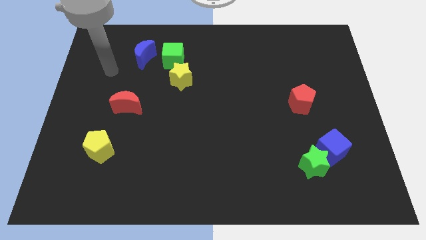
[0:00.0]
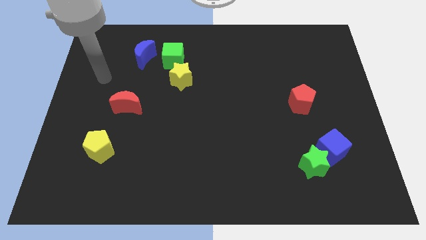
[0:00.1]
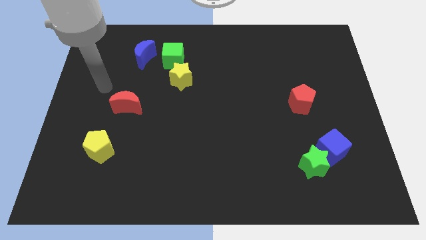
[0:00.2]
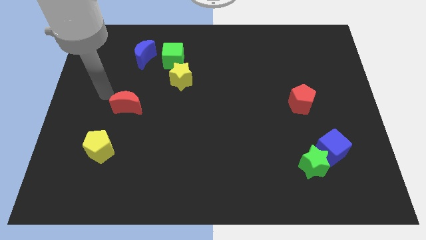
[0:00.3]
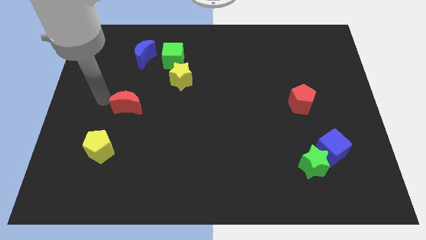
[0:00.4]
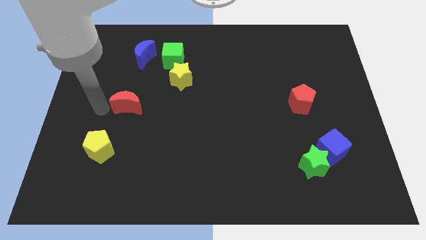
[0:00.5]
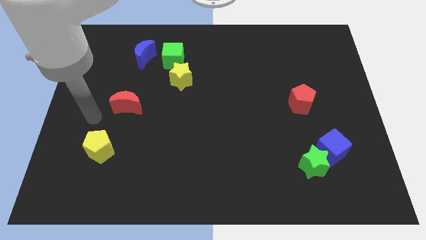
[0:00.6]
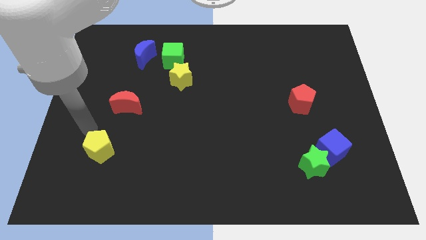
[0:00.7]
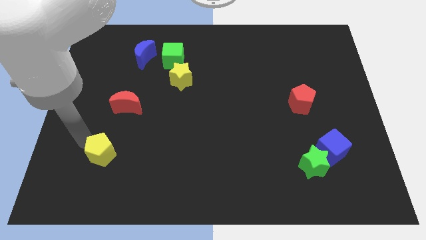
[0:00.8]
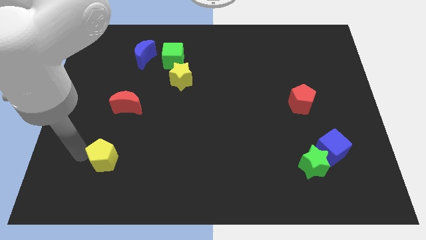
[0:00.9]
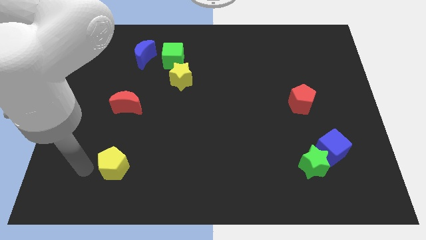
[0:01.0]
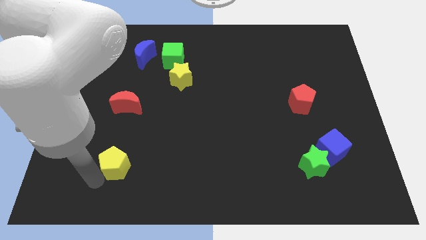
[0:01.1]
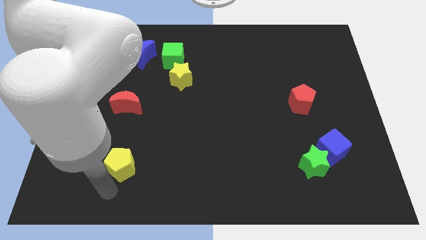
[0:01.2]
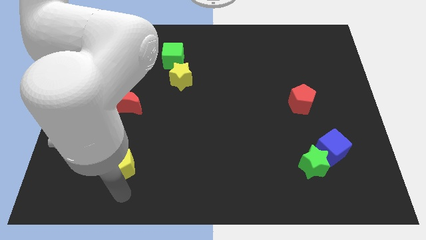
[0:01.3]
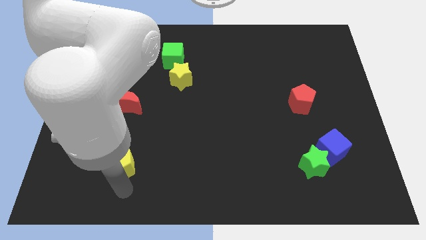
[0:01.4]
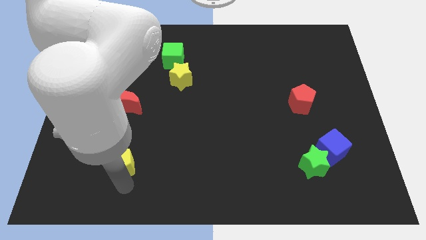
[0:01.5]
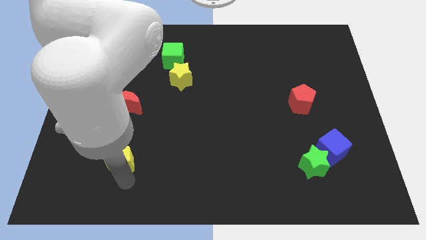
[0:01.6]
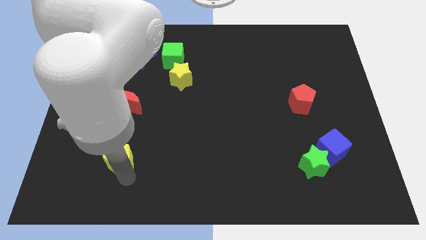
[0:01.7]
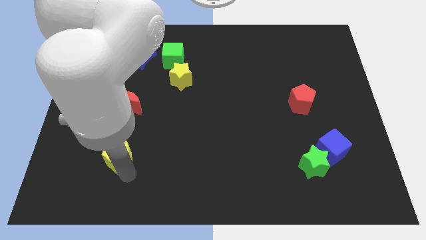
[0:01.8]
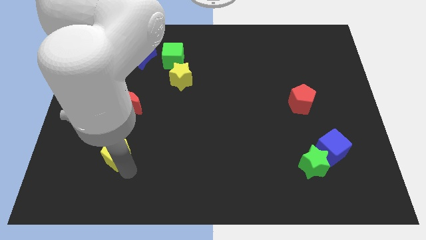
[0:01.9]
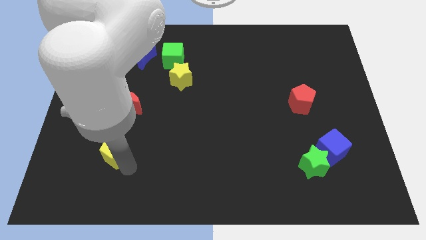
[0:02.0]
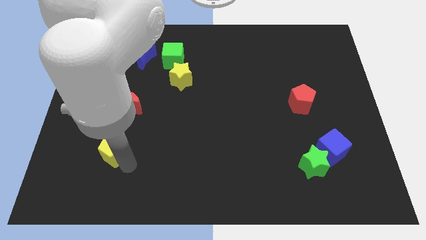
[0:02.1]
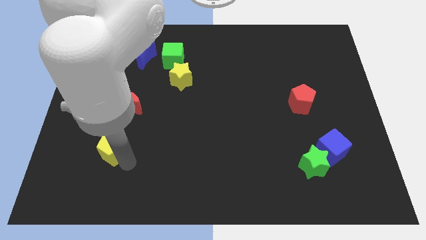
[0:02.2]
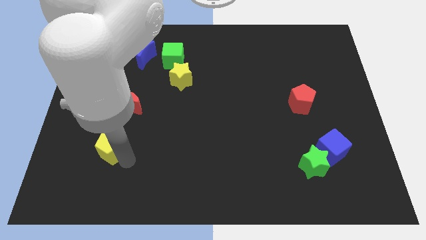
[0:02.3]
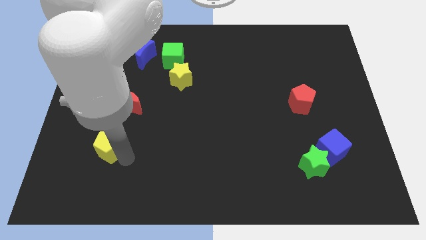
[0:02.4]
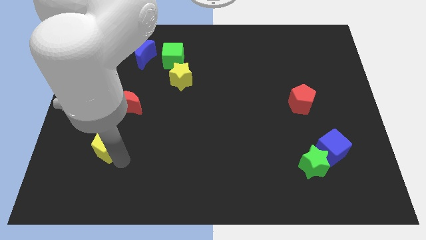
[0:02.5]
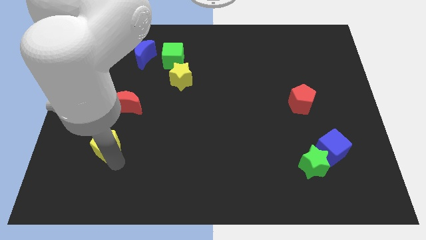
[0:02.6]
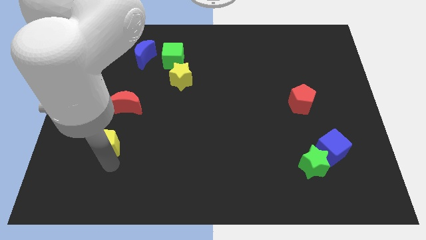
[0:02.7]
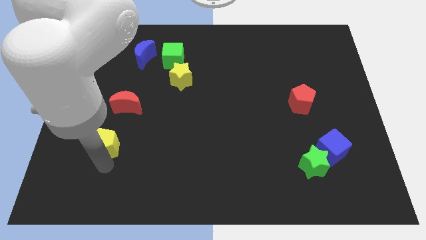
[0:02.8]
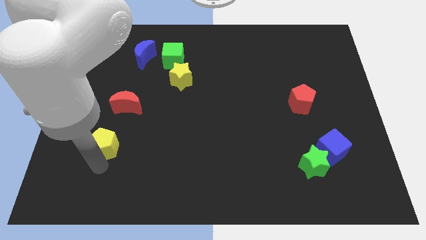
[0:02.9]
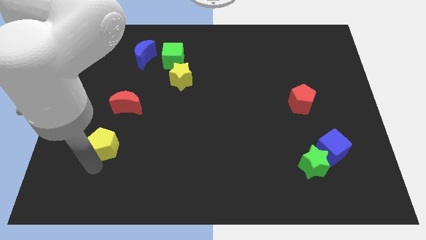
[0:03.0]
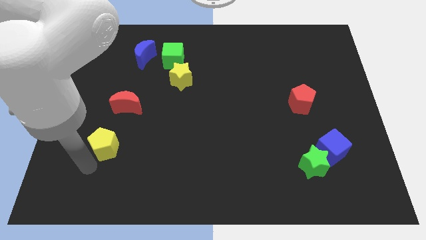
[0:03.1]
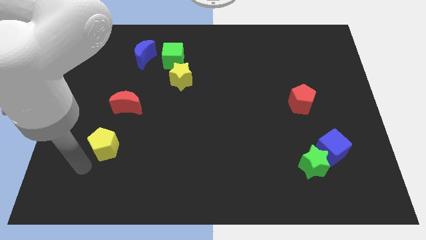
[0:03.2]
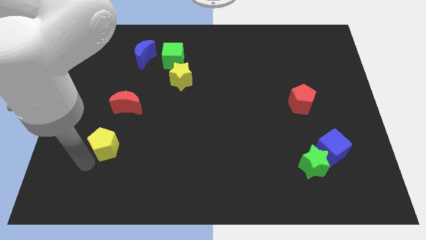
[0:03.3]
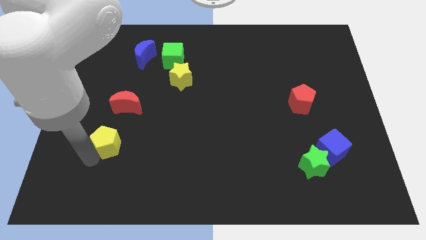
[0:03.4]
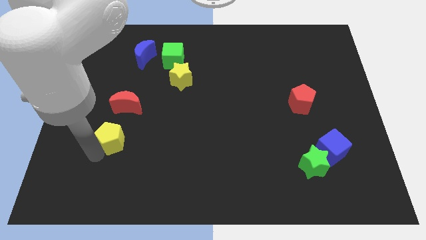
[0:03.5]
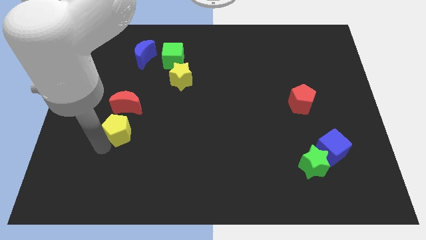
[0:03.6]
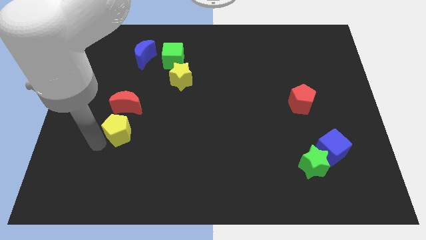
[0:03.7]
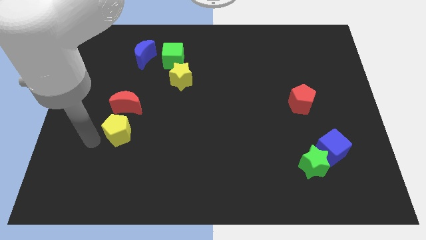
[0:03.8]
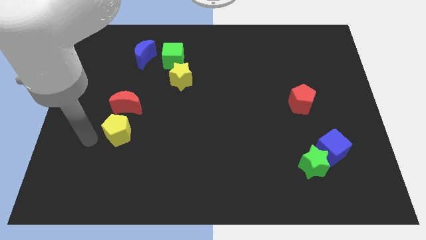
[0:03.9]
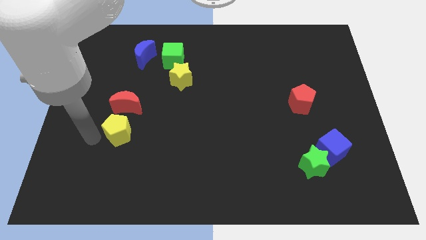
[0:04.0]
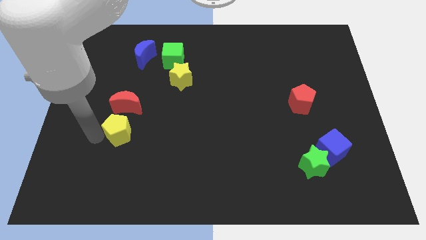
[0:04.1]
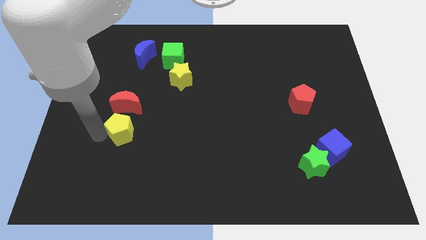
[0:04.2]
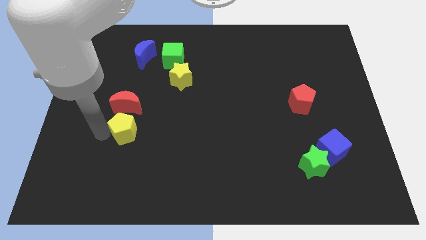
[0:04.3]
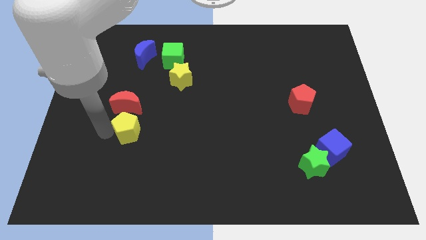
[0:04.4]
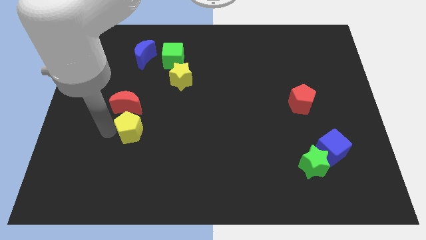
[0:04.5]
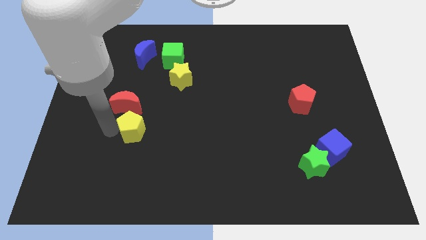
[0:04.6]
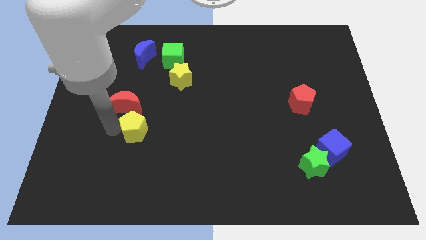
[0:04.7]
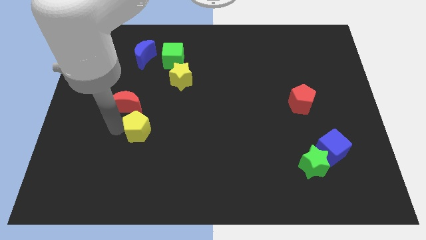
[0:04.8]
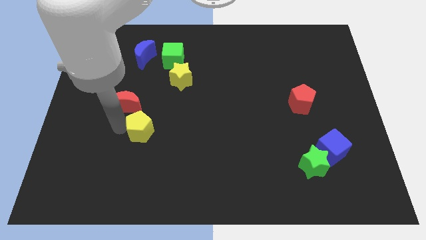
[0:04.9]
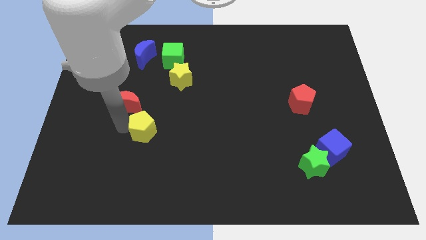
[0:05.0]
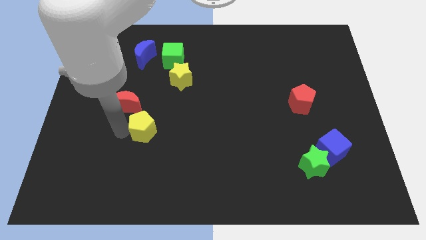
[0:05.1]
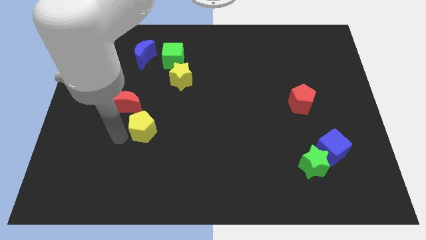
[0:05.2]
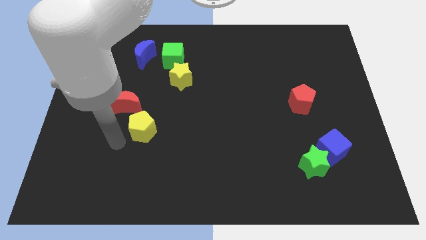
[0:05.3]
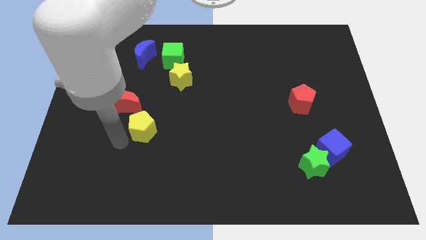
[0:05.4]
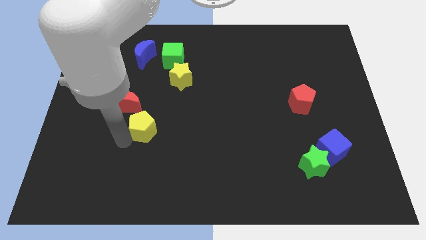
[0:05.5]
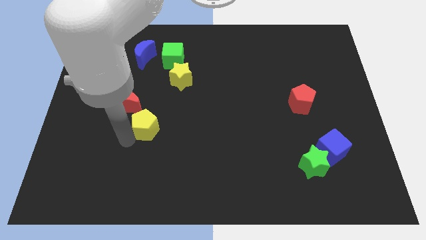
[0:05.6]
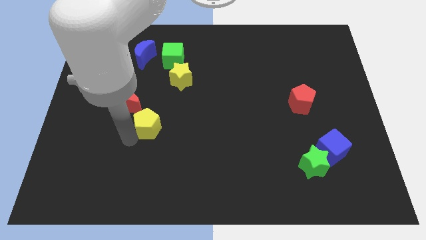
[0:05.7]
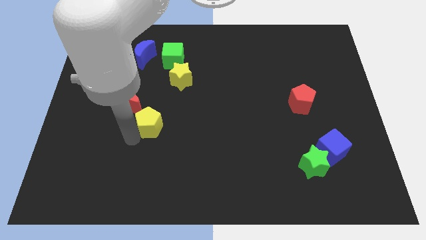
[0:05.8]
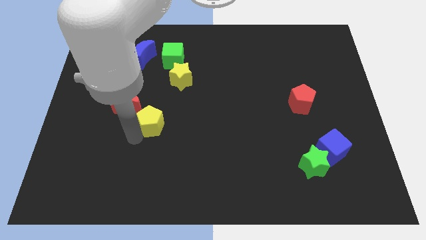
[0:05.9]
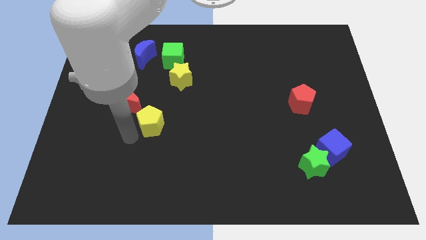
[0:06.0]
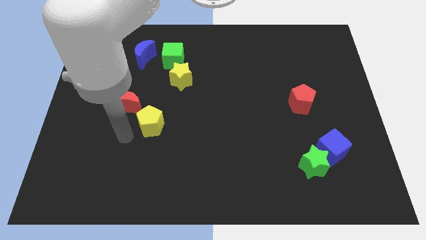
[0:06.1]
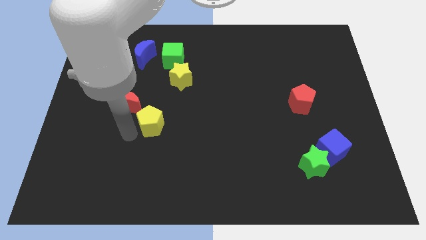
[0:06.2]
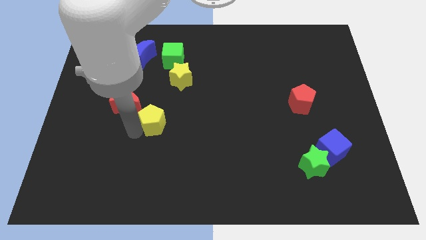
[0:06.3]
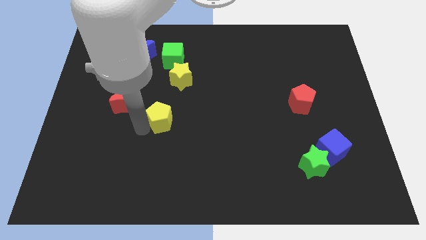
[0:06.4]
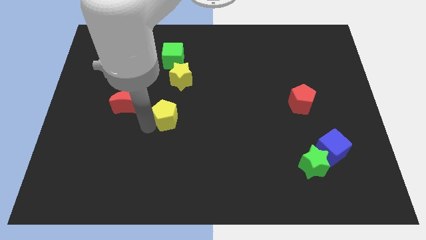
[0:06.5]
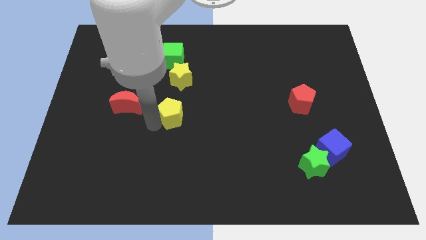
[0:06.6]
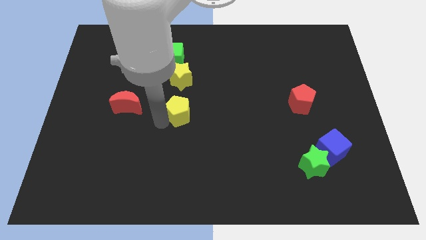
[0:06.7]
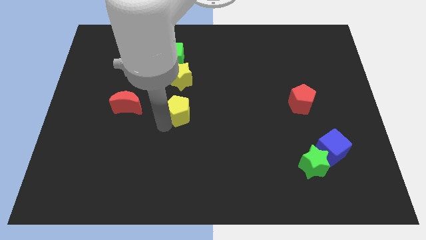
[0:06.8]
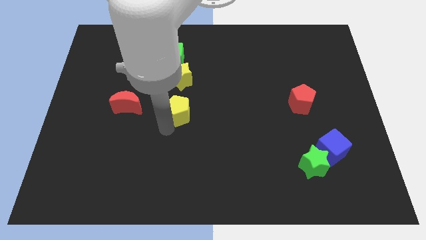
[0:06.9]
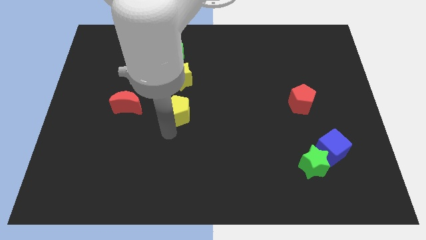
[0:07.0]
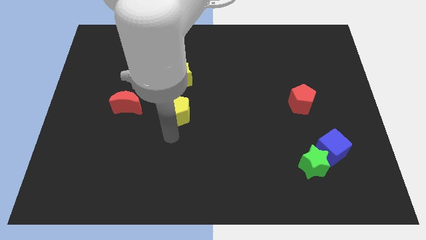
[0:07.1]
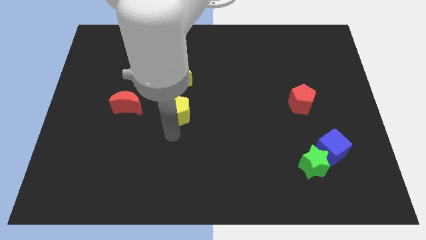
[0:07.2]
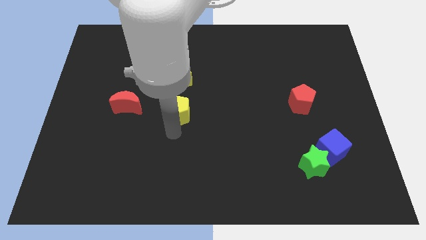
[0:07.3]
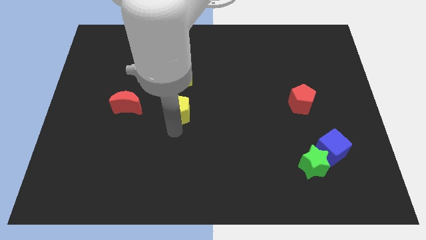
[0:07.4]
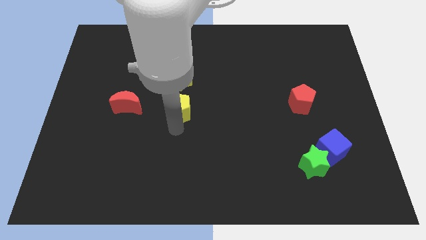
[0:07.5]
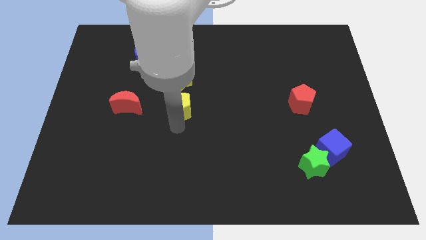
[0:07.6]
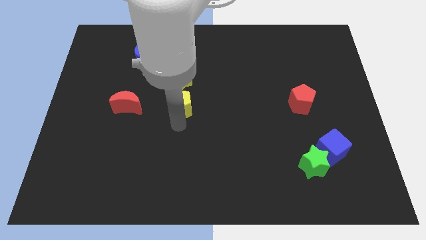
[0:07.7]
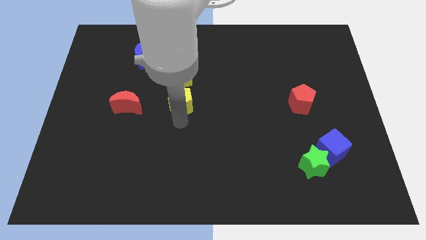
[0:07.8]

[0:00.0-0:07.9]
move the yellow pentagon upwards and to the right
